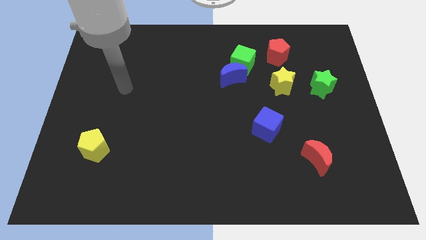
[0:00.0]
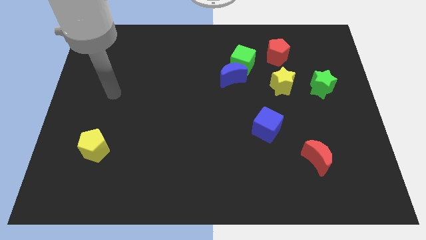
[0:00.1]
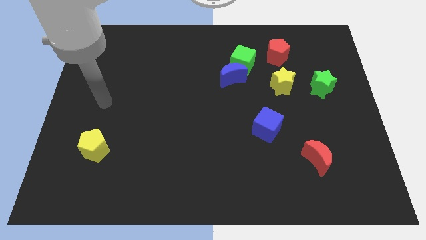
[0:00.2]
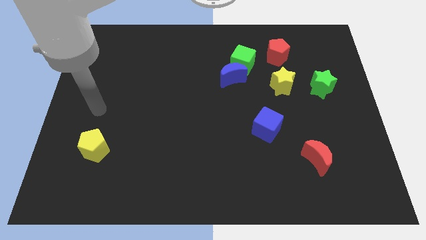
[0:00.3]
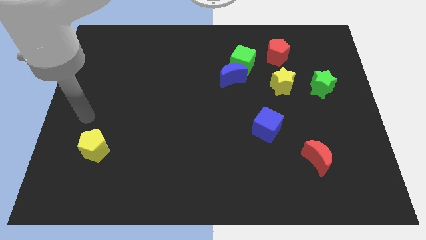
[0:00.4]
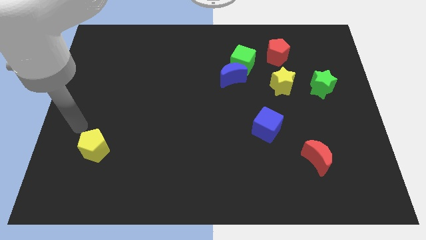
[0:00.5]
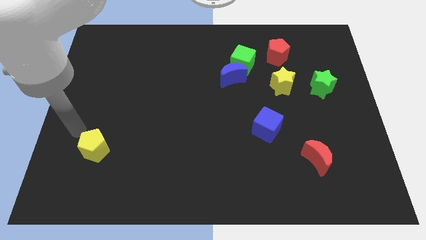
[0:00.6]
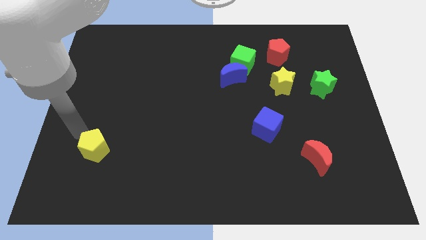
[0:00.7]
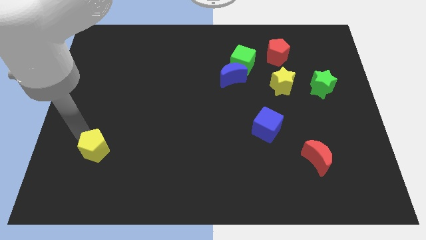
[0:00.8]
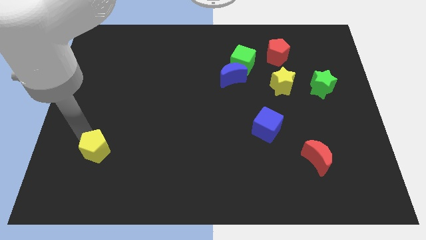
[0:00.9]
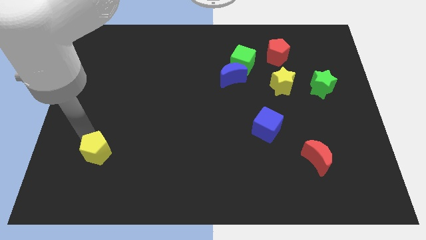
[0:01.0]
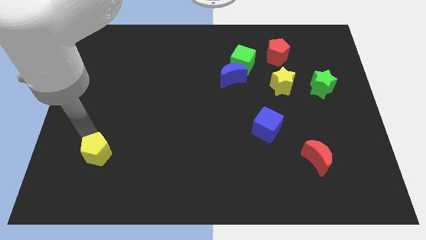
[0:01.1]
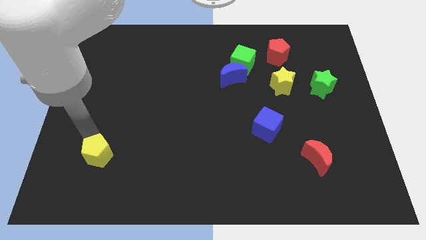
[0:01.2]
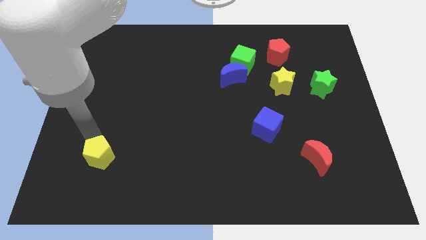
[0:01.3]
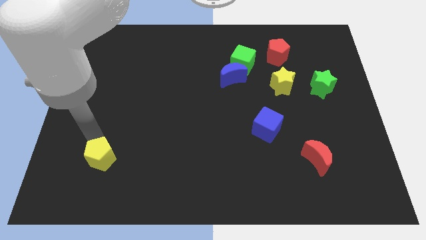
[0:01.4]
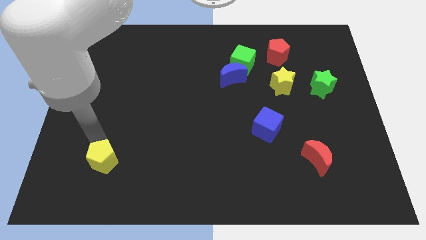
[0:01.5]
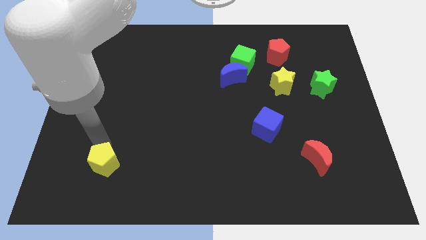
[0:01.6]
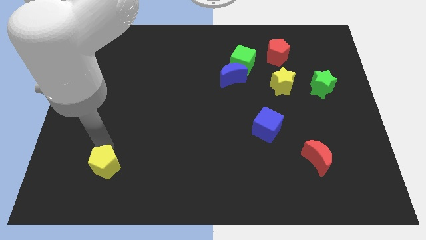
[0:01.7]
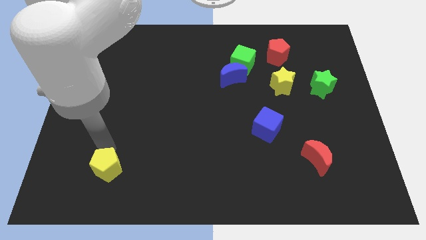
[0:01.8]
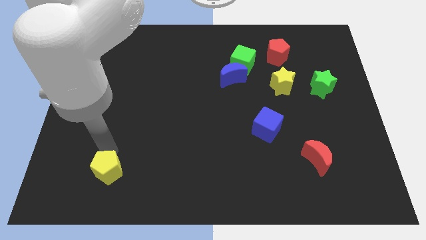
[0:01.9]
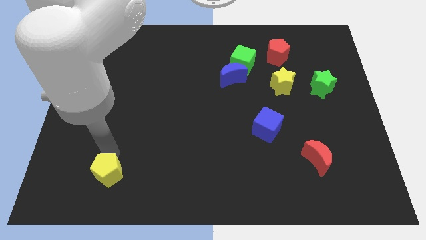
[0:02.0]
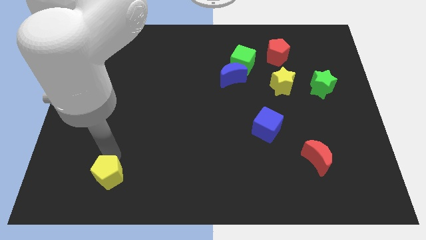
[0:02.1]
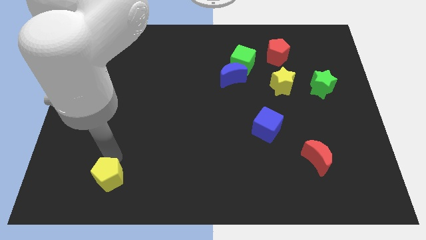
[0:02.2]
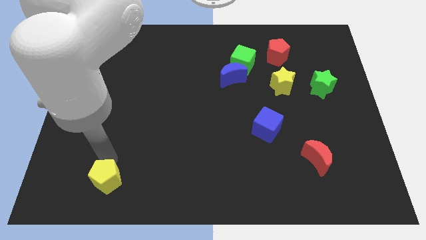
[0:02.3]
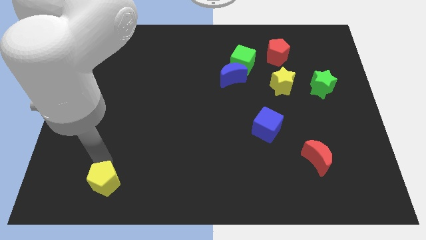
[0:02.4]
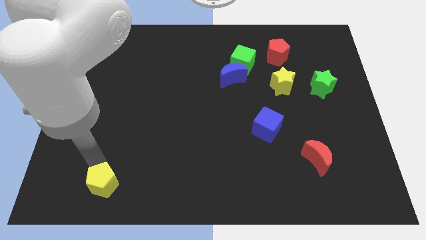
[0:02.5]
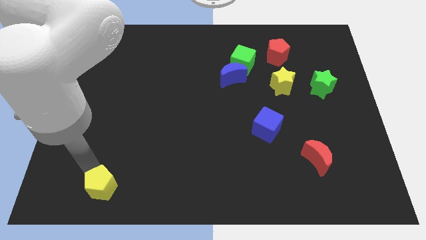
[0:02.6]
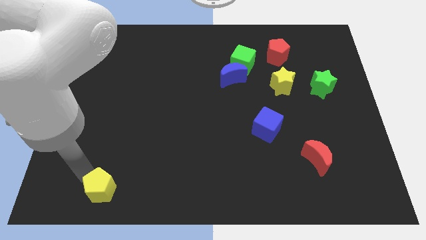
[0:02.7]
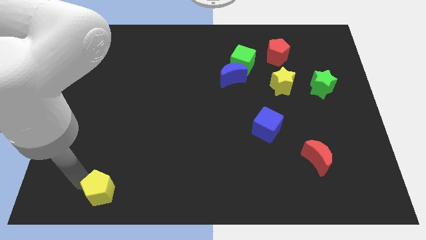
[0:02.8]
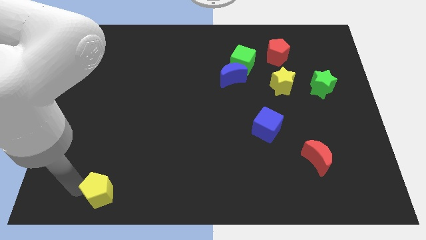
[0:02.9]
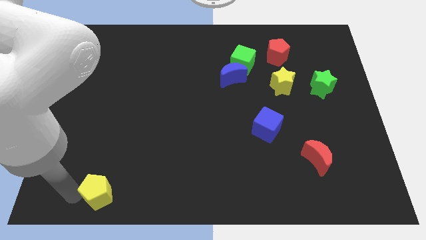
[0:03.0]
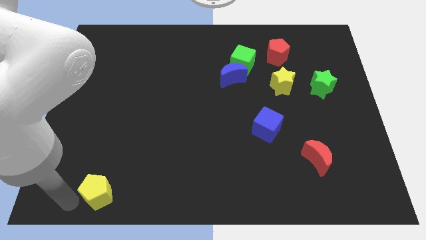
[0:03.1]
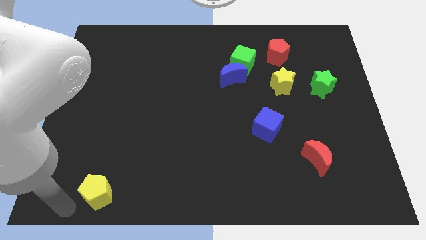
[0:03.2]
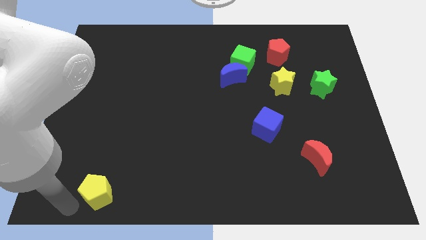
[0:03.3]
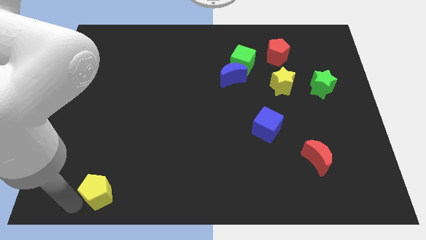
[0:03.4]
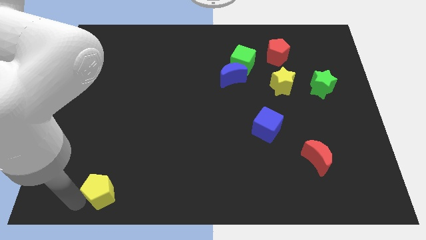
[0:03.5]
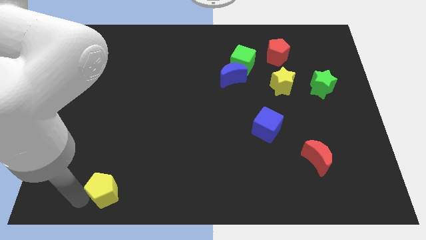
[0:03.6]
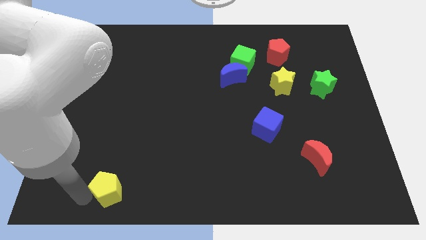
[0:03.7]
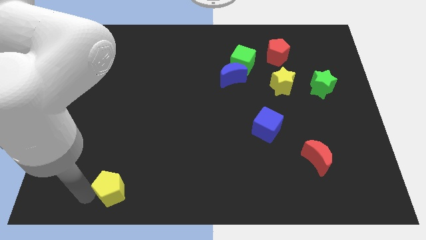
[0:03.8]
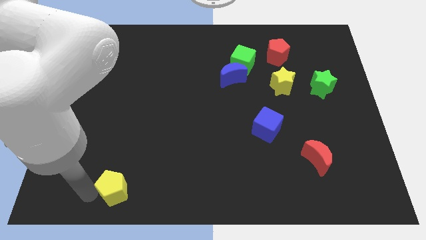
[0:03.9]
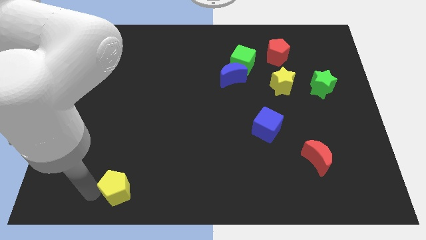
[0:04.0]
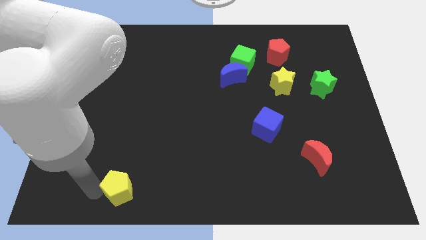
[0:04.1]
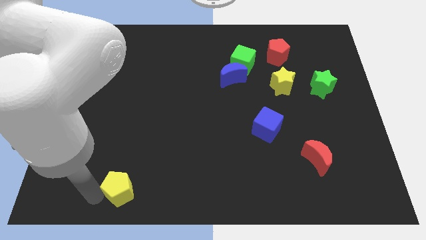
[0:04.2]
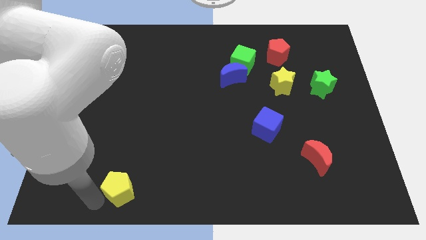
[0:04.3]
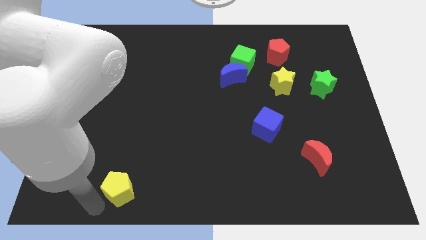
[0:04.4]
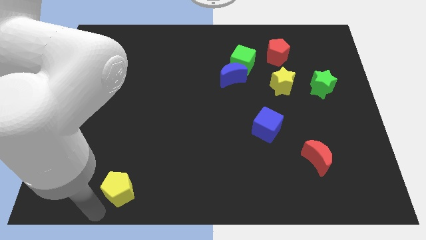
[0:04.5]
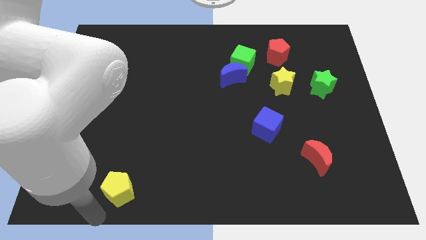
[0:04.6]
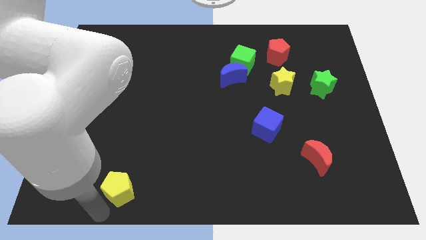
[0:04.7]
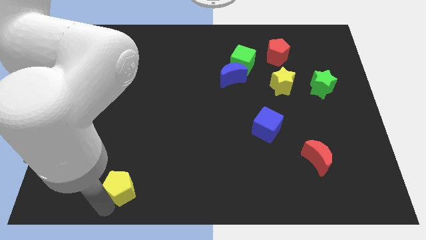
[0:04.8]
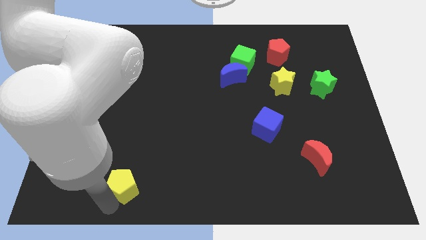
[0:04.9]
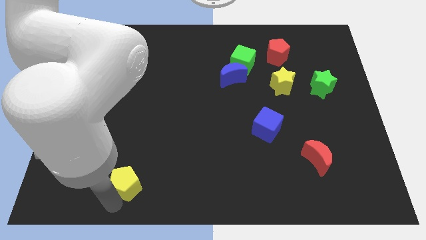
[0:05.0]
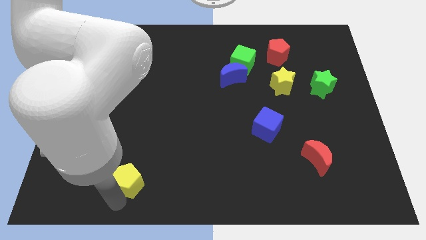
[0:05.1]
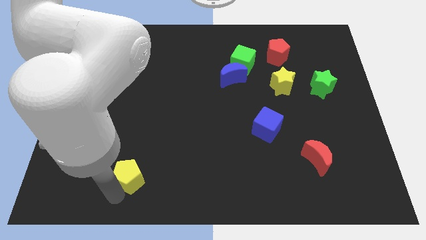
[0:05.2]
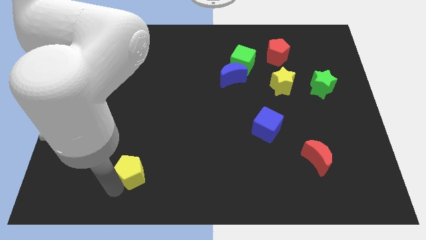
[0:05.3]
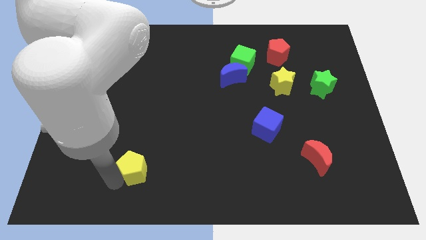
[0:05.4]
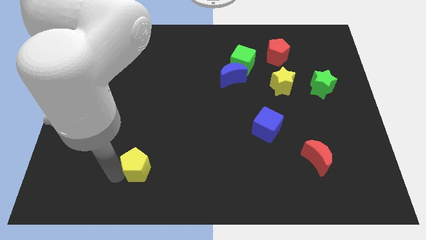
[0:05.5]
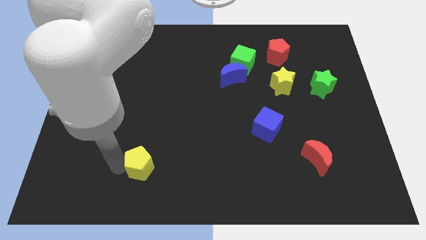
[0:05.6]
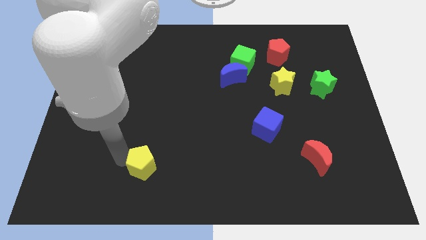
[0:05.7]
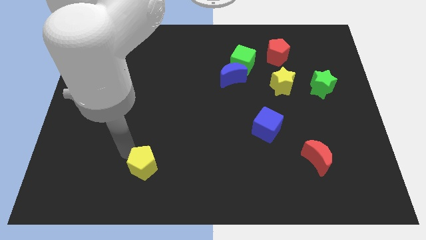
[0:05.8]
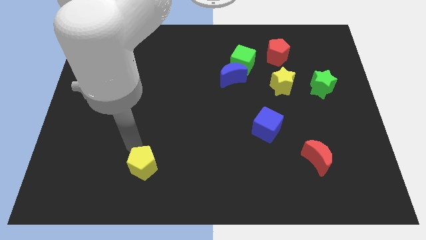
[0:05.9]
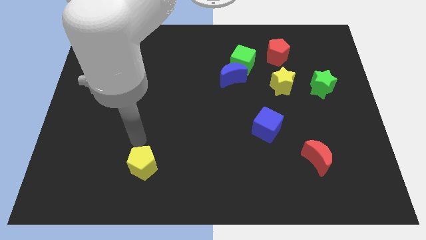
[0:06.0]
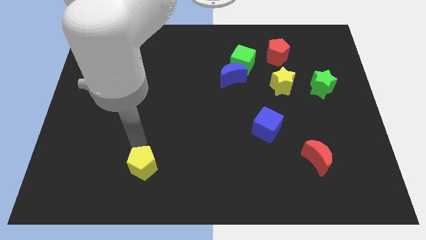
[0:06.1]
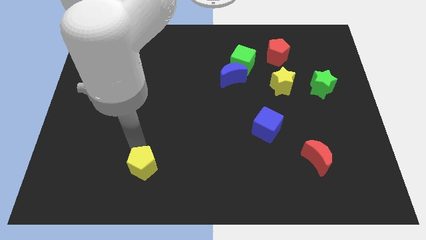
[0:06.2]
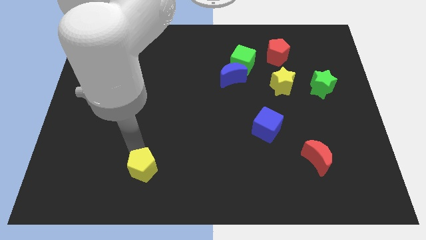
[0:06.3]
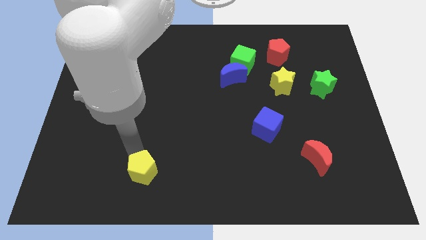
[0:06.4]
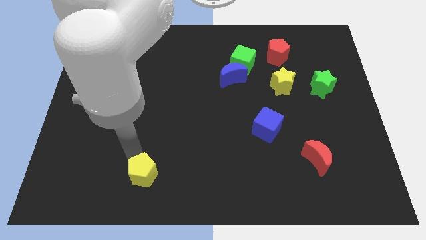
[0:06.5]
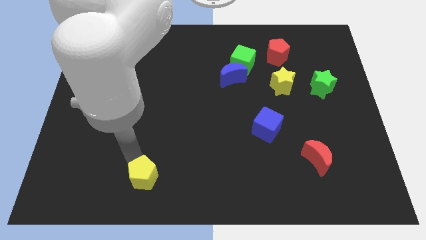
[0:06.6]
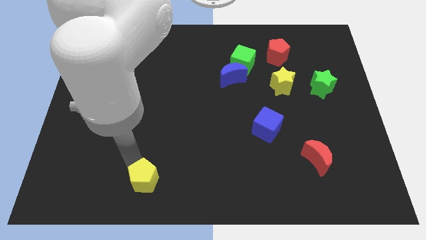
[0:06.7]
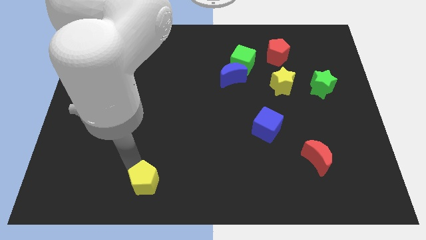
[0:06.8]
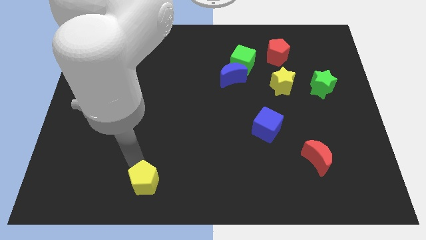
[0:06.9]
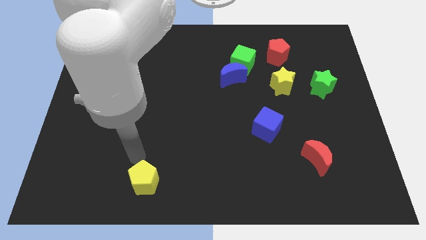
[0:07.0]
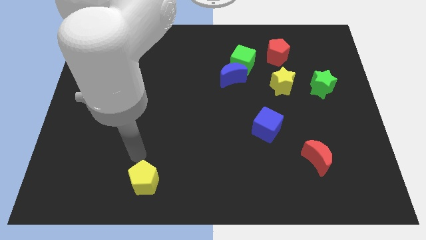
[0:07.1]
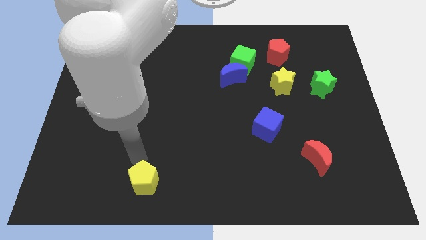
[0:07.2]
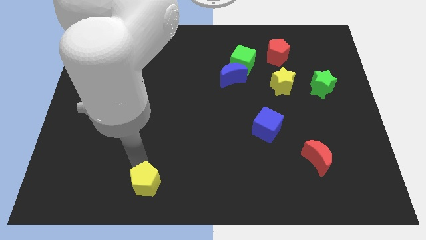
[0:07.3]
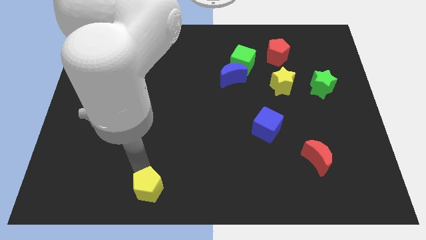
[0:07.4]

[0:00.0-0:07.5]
put the yellow pentagon to the bottom
